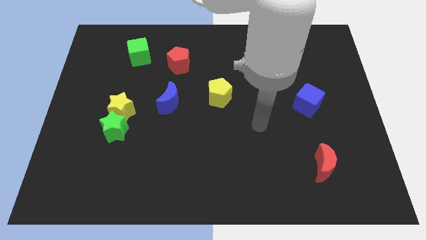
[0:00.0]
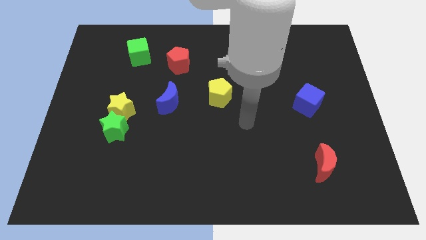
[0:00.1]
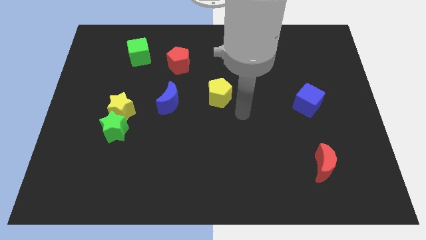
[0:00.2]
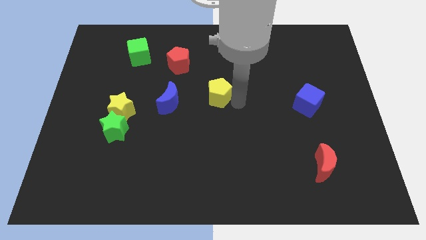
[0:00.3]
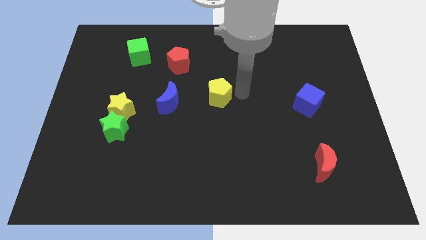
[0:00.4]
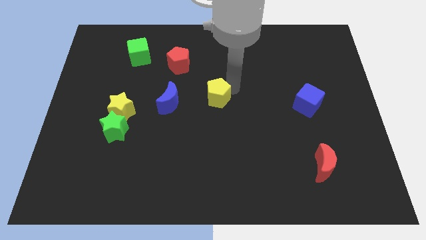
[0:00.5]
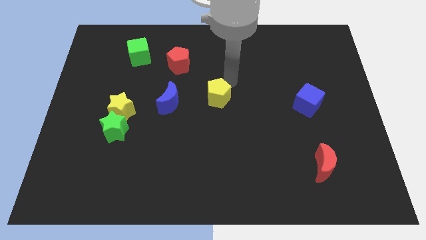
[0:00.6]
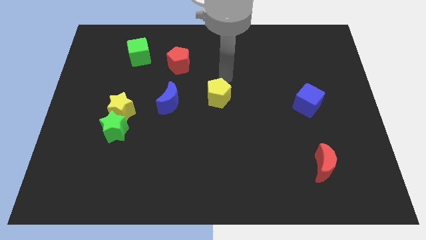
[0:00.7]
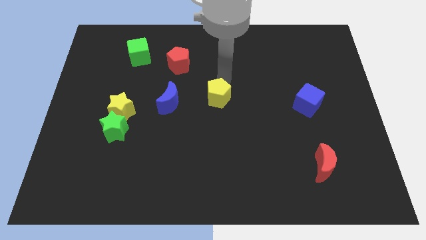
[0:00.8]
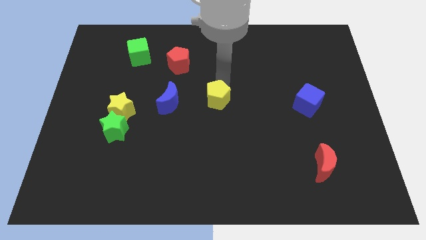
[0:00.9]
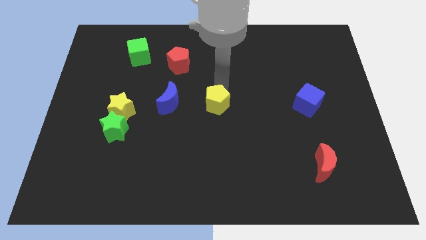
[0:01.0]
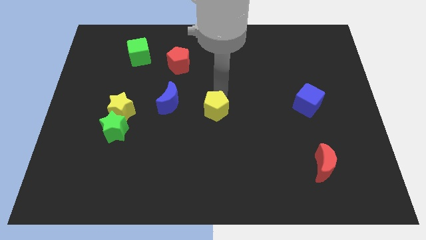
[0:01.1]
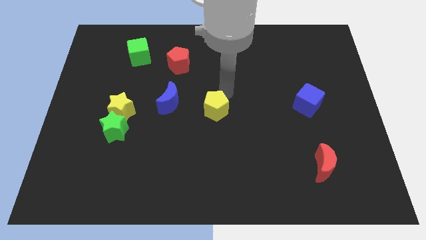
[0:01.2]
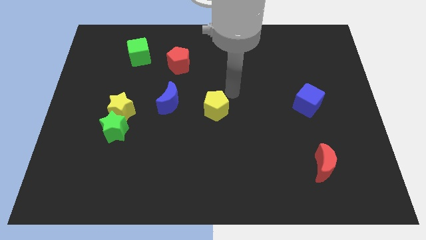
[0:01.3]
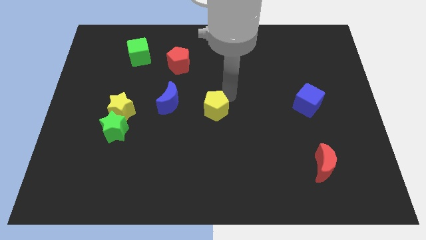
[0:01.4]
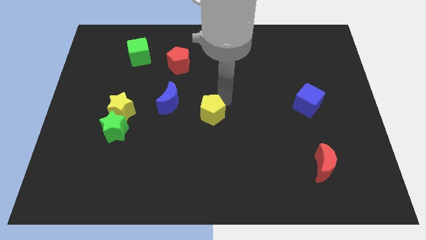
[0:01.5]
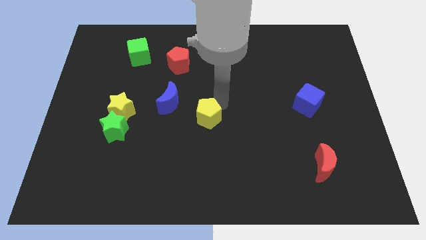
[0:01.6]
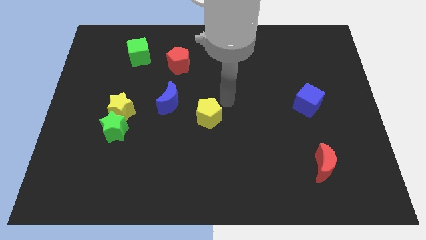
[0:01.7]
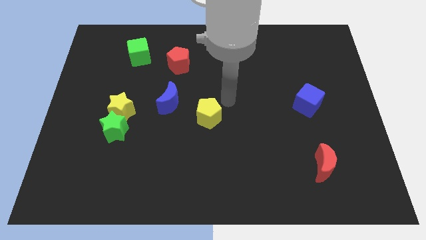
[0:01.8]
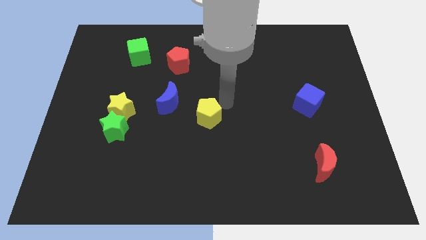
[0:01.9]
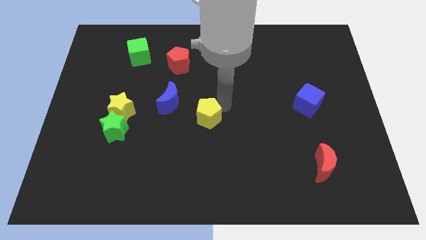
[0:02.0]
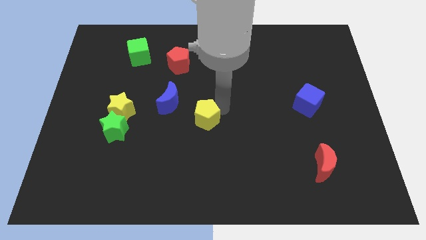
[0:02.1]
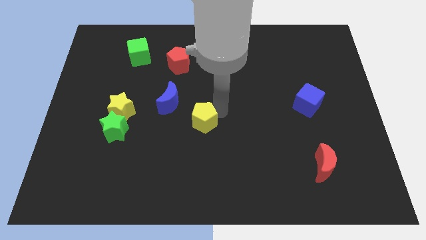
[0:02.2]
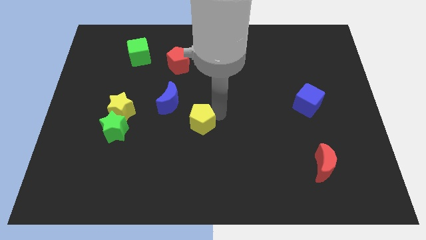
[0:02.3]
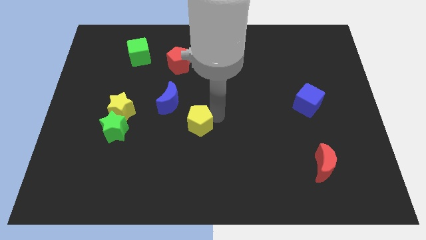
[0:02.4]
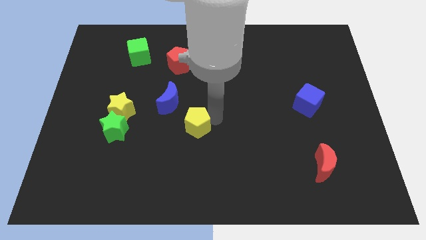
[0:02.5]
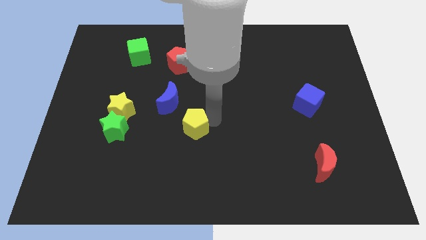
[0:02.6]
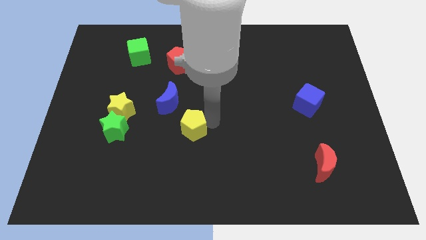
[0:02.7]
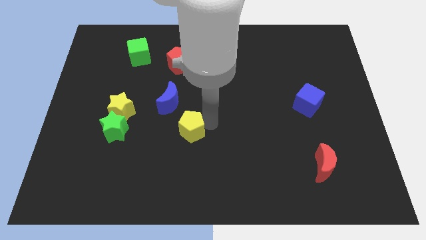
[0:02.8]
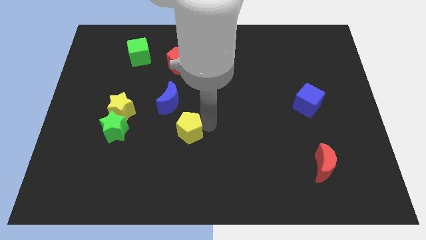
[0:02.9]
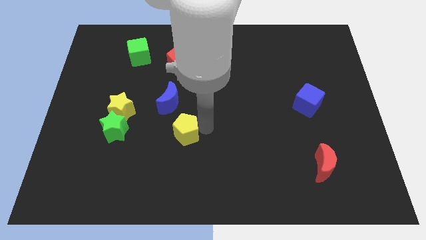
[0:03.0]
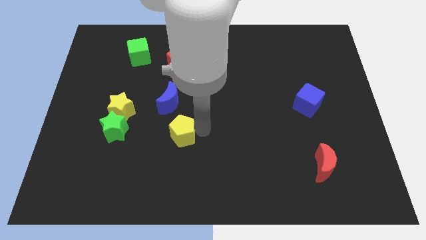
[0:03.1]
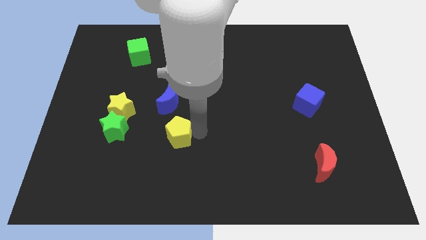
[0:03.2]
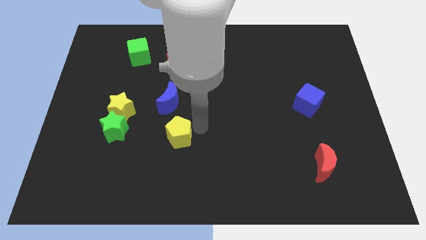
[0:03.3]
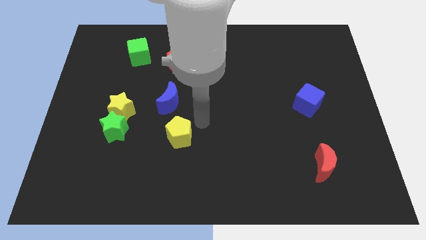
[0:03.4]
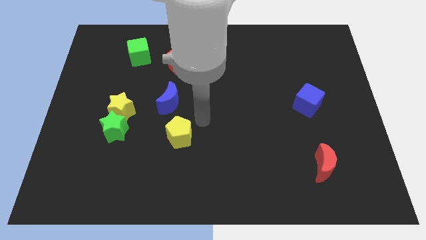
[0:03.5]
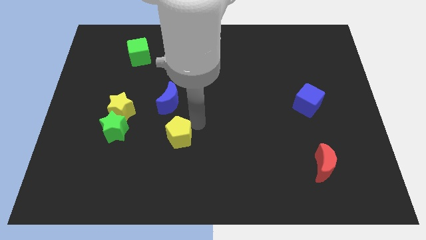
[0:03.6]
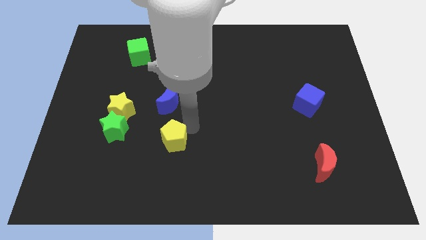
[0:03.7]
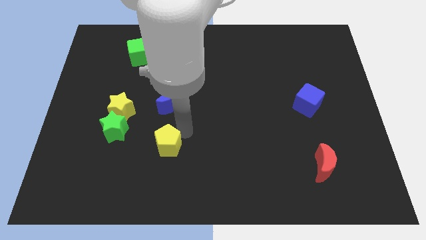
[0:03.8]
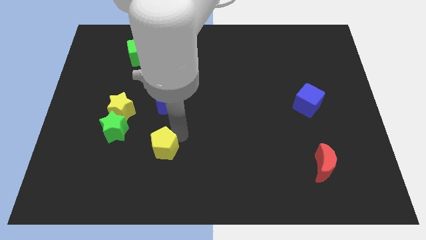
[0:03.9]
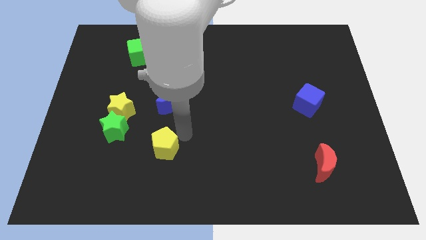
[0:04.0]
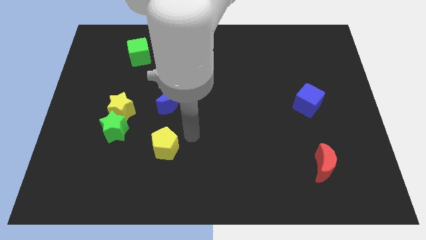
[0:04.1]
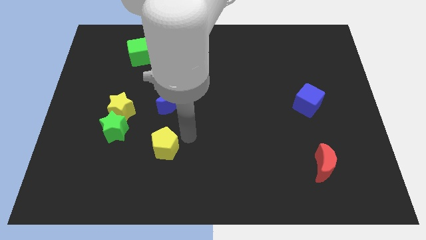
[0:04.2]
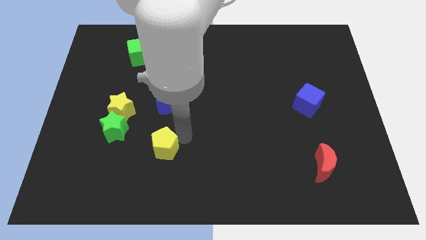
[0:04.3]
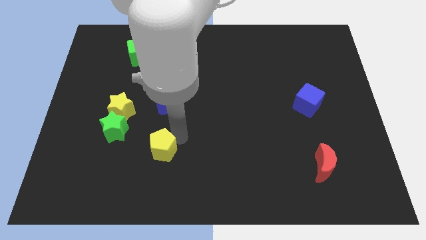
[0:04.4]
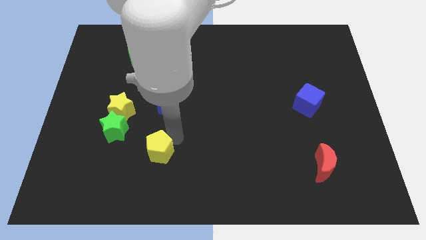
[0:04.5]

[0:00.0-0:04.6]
push the yellow pentagon downwards and left

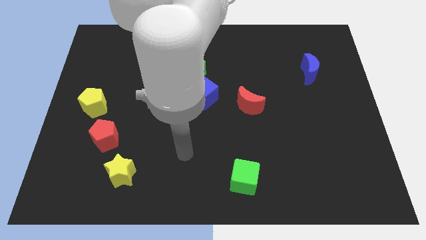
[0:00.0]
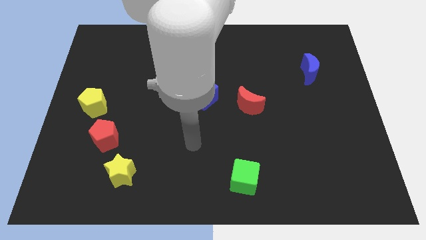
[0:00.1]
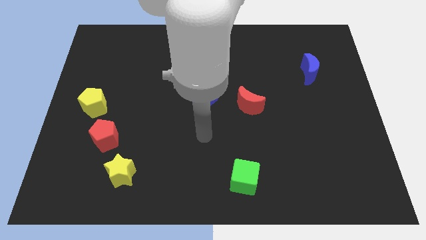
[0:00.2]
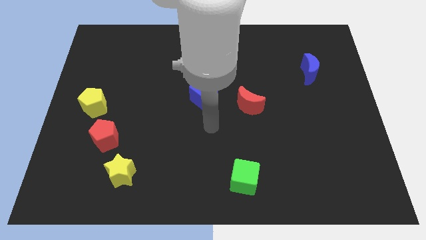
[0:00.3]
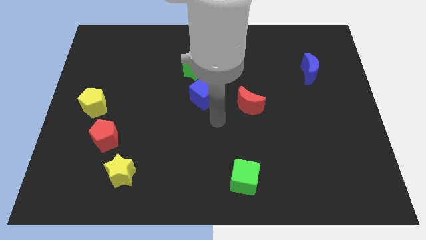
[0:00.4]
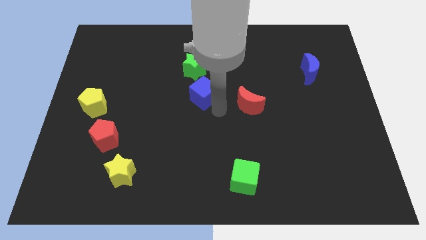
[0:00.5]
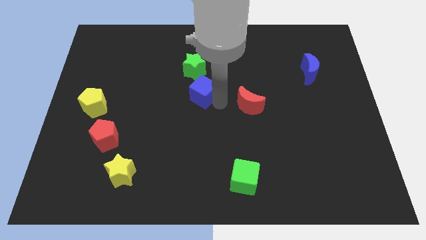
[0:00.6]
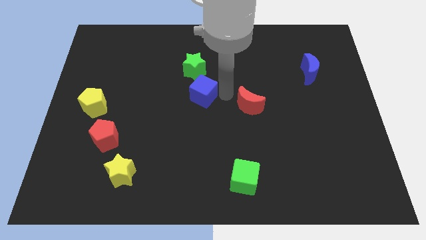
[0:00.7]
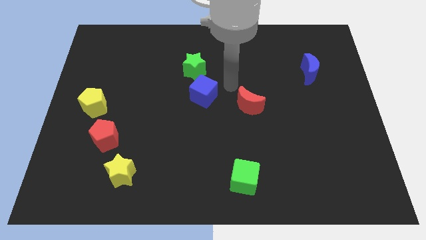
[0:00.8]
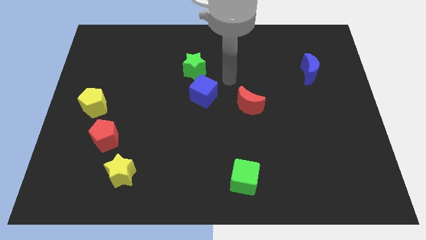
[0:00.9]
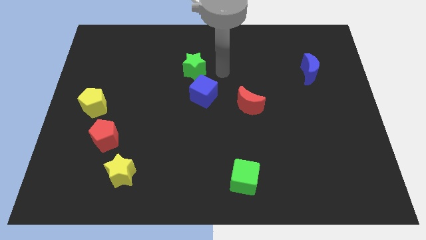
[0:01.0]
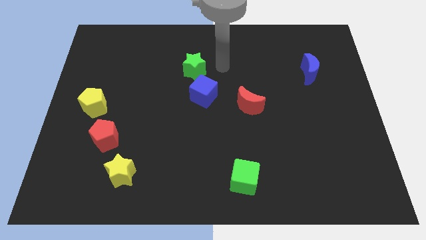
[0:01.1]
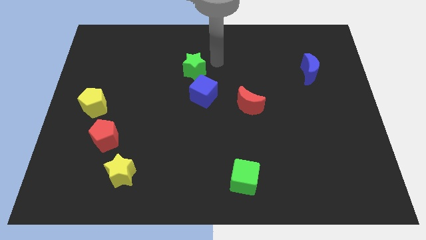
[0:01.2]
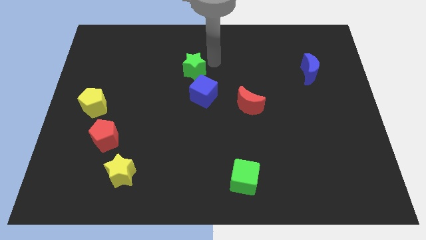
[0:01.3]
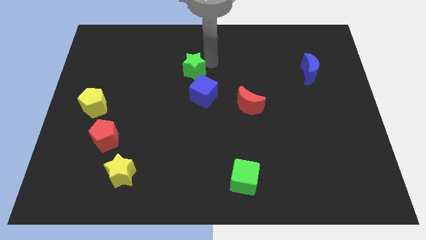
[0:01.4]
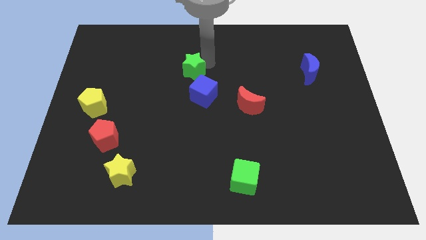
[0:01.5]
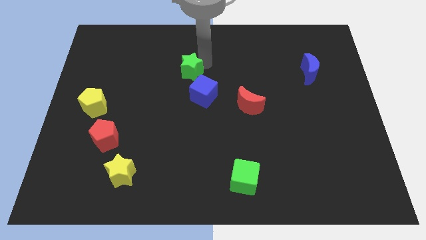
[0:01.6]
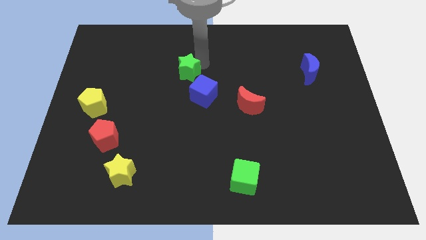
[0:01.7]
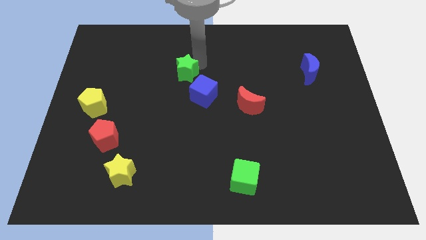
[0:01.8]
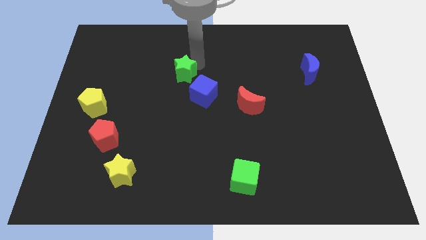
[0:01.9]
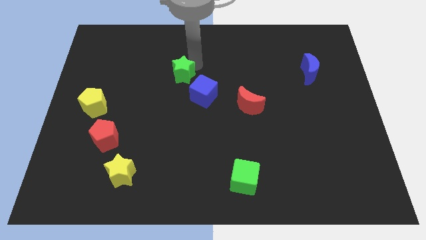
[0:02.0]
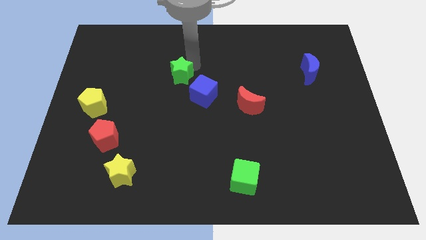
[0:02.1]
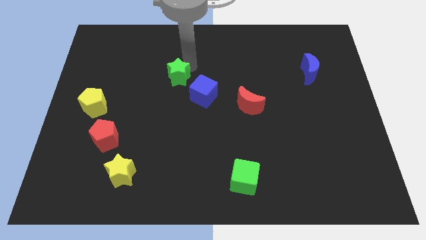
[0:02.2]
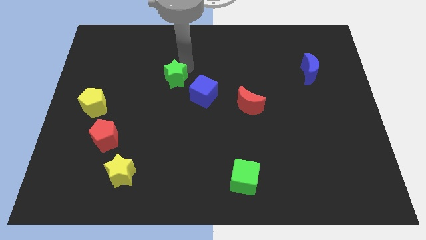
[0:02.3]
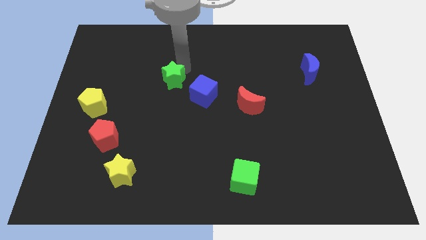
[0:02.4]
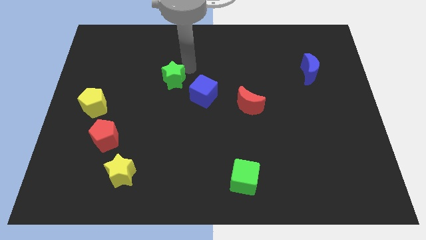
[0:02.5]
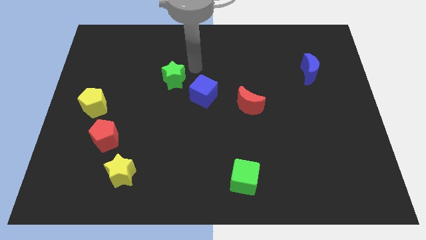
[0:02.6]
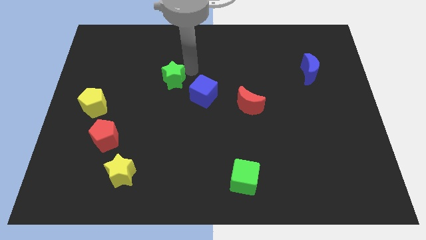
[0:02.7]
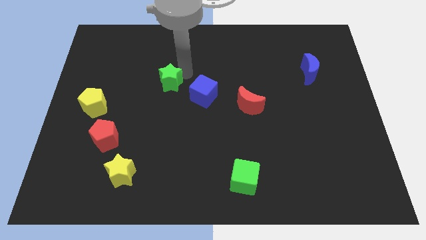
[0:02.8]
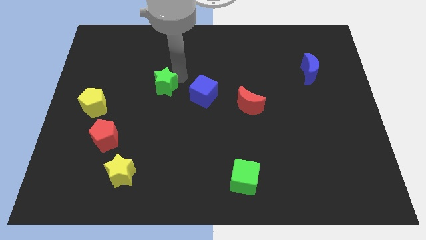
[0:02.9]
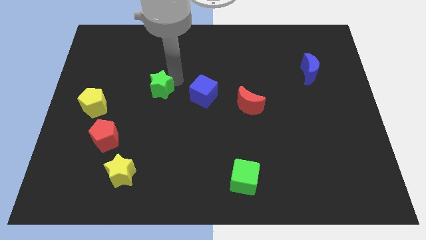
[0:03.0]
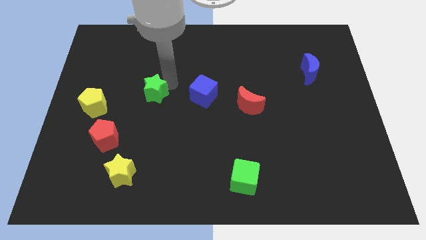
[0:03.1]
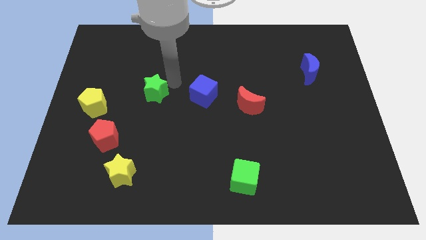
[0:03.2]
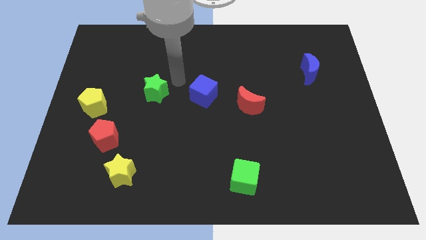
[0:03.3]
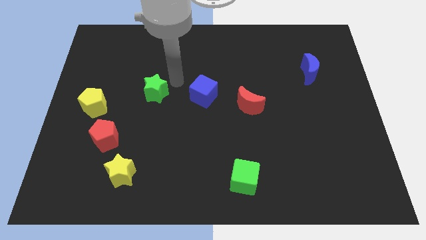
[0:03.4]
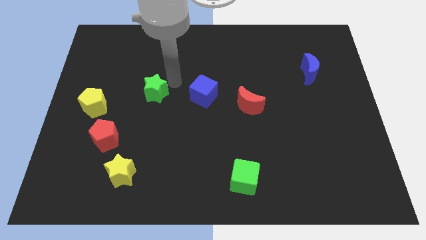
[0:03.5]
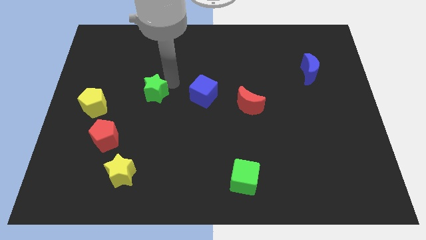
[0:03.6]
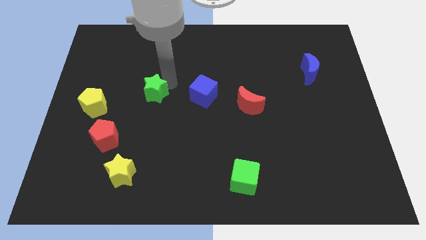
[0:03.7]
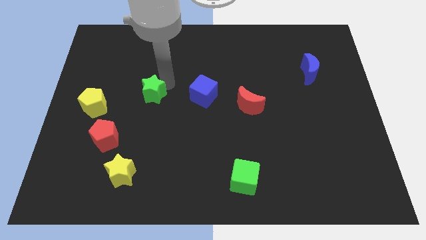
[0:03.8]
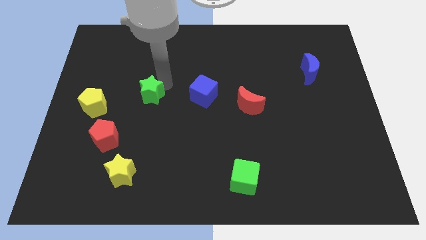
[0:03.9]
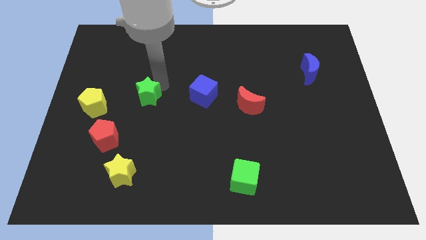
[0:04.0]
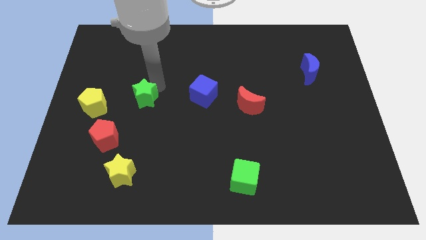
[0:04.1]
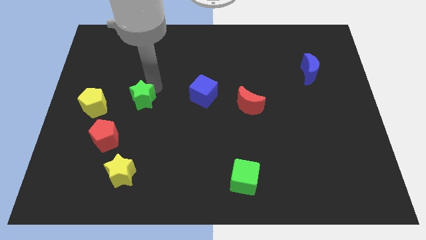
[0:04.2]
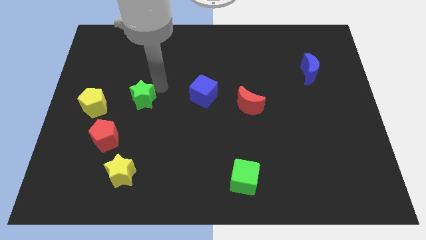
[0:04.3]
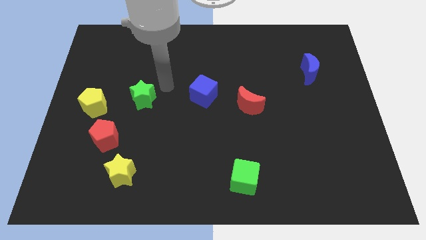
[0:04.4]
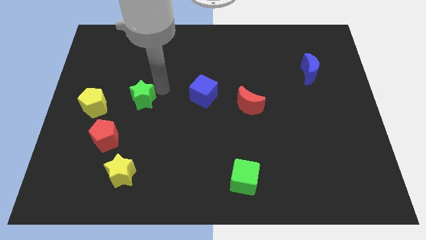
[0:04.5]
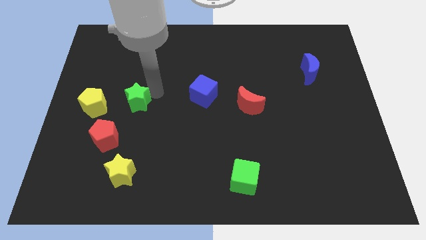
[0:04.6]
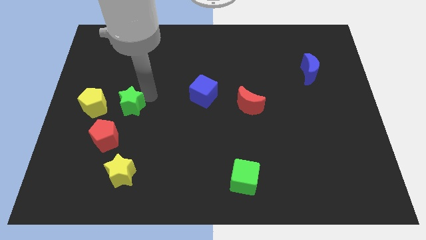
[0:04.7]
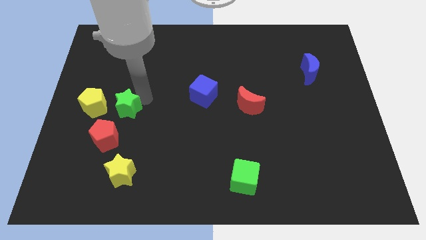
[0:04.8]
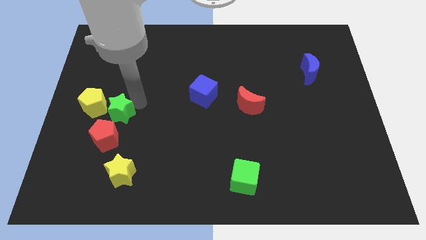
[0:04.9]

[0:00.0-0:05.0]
move the green star down and left
